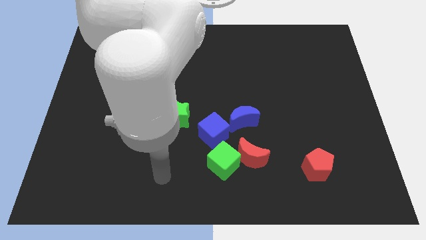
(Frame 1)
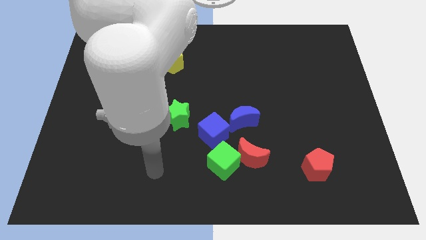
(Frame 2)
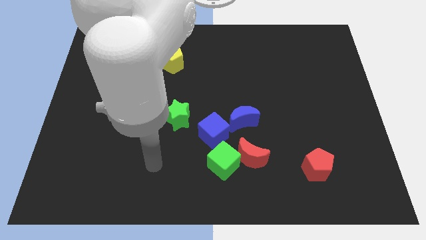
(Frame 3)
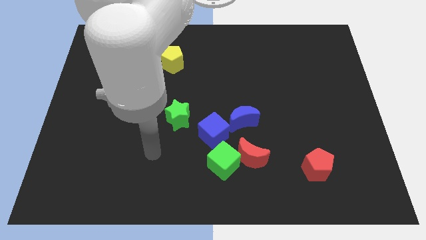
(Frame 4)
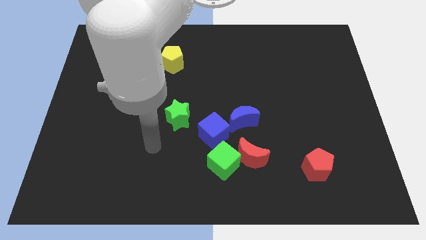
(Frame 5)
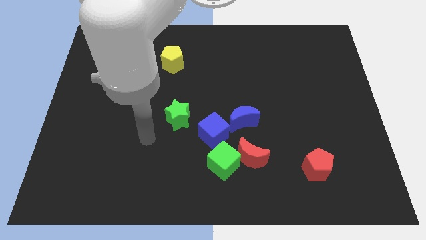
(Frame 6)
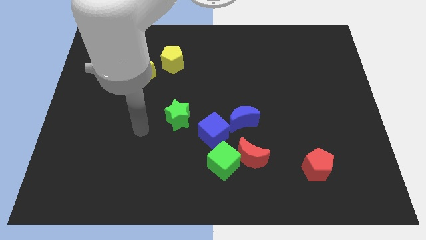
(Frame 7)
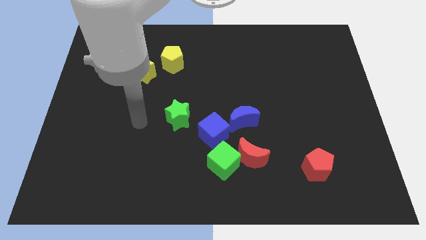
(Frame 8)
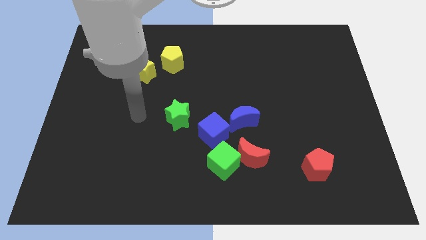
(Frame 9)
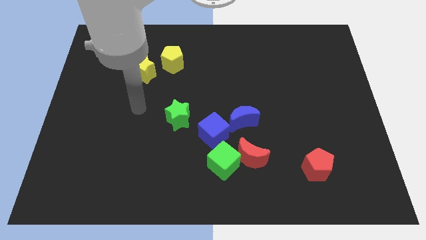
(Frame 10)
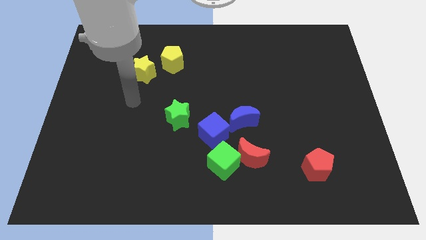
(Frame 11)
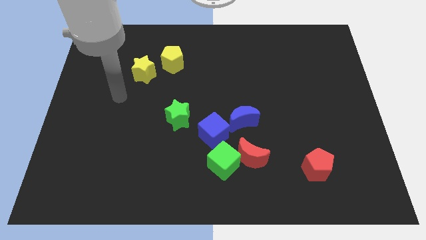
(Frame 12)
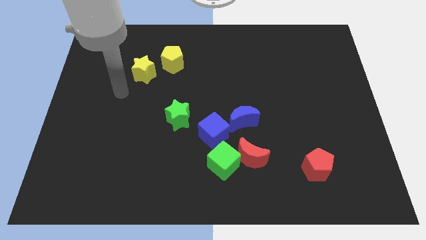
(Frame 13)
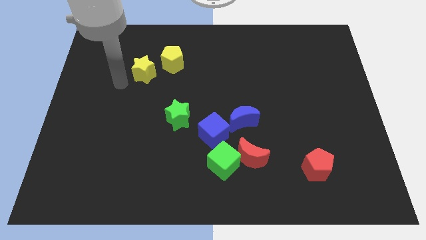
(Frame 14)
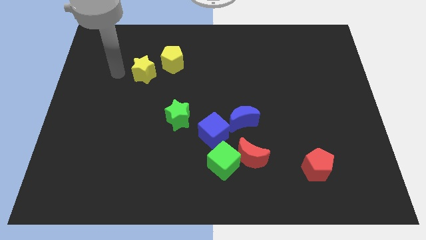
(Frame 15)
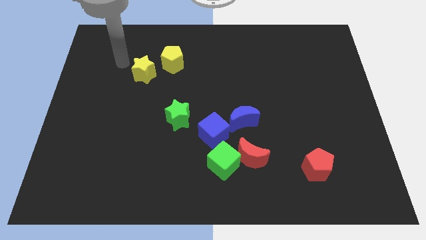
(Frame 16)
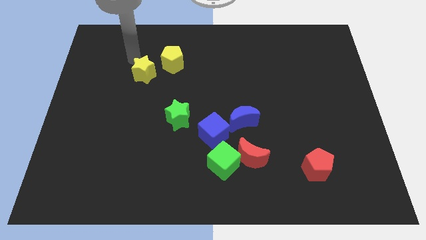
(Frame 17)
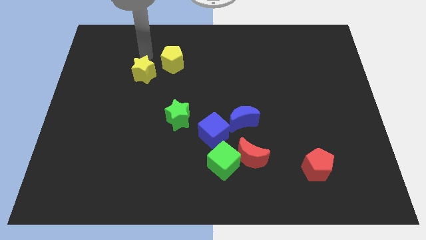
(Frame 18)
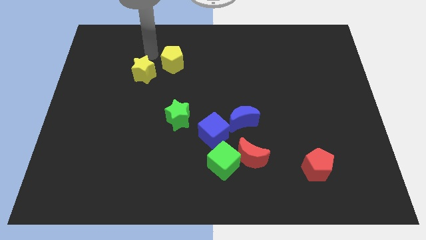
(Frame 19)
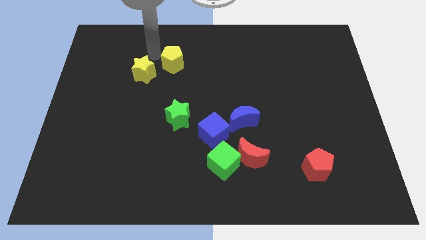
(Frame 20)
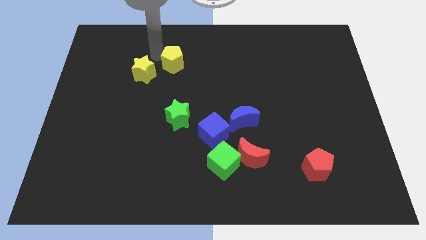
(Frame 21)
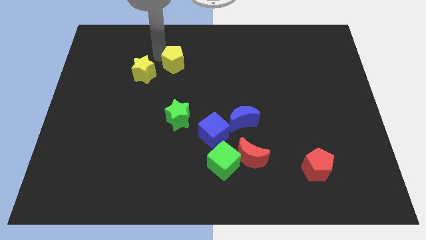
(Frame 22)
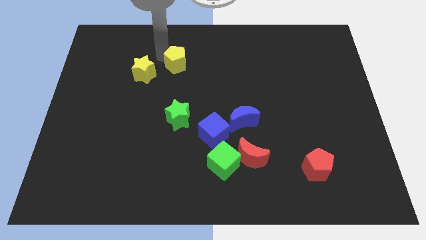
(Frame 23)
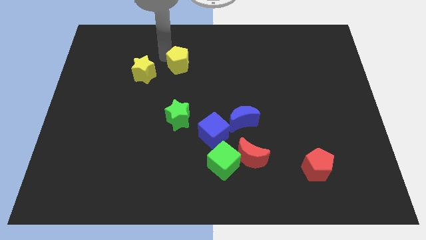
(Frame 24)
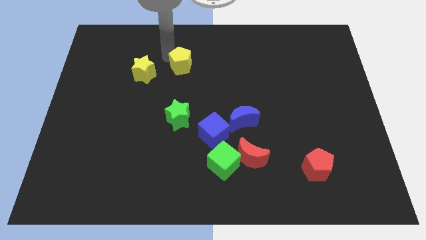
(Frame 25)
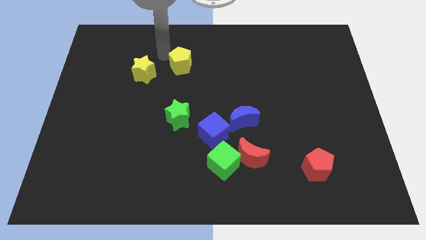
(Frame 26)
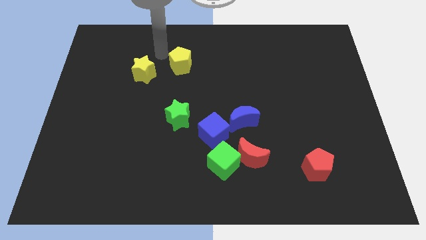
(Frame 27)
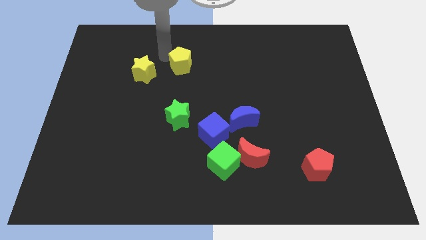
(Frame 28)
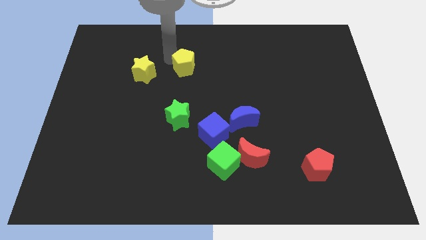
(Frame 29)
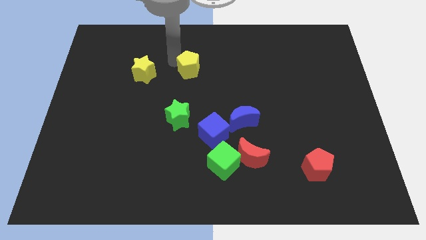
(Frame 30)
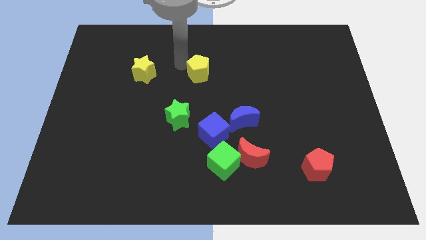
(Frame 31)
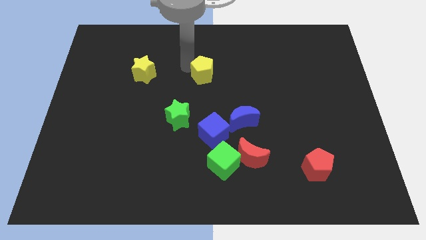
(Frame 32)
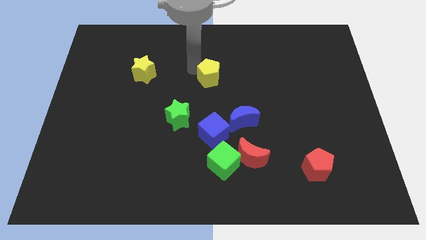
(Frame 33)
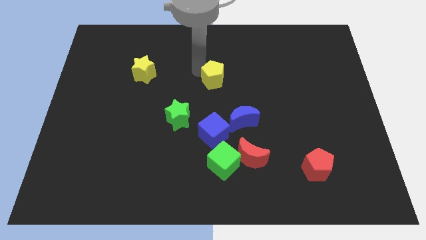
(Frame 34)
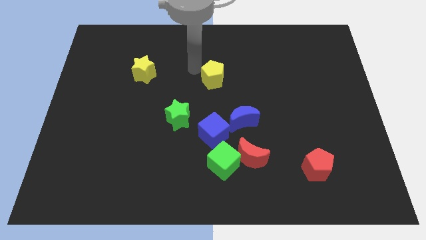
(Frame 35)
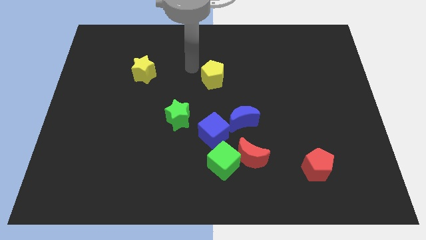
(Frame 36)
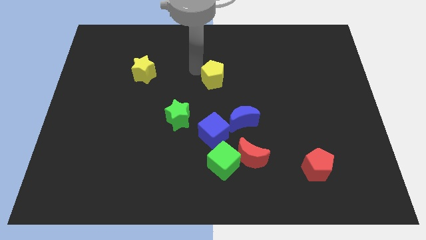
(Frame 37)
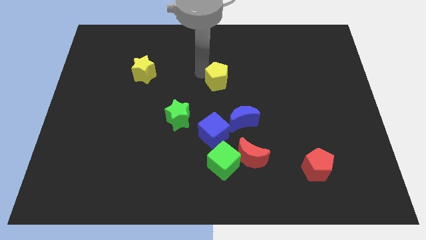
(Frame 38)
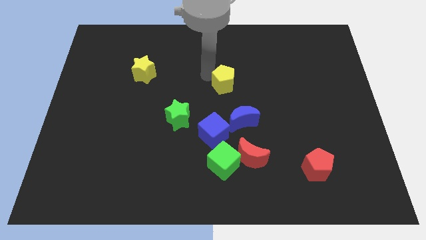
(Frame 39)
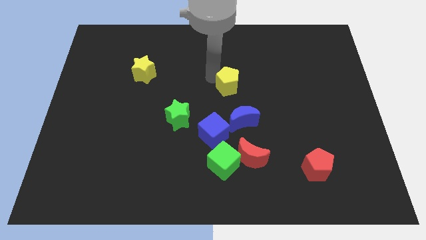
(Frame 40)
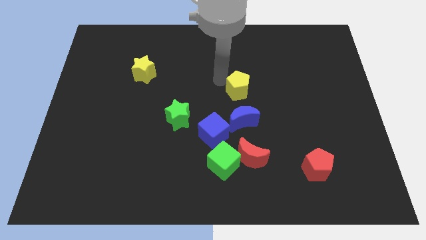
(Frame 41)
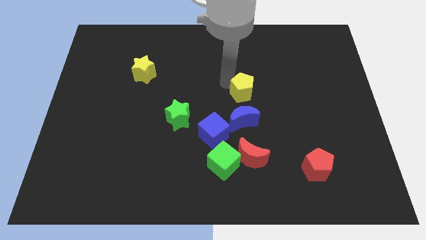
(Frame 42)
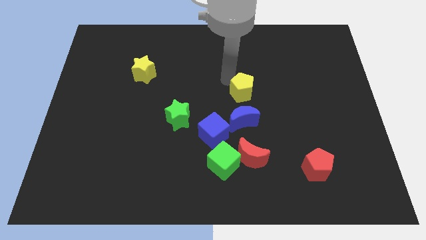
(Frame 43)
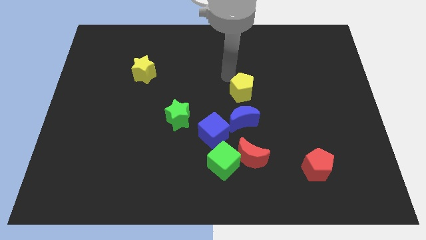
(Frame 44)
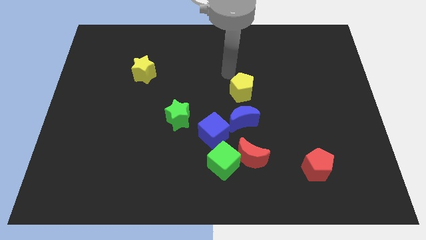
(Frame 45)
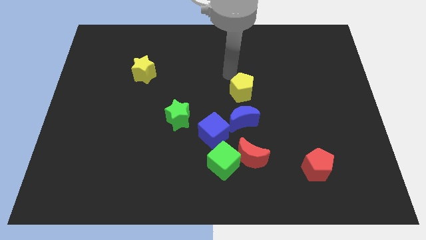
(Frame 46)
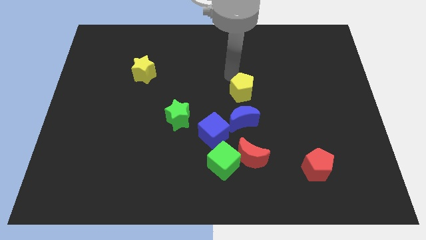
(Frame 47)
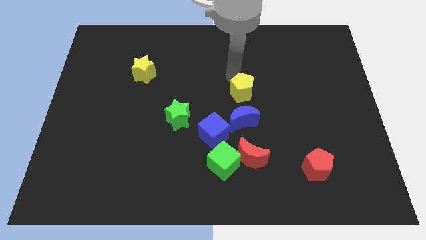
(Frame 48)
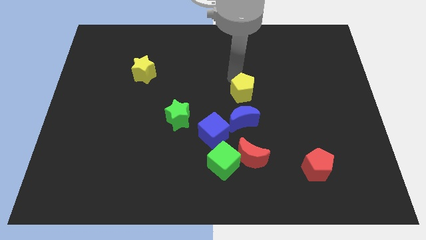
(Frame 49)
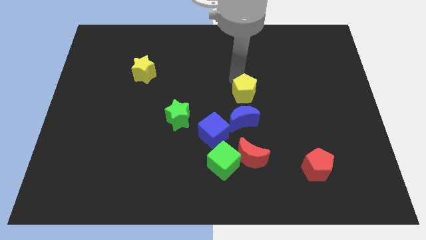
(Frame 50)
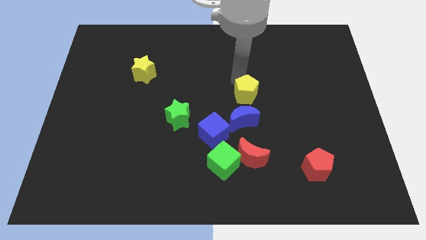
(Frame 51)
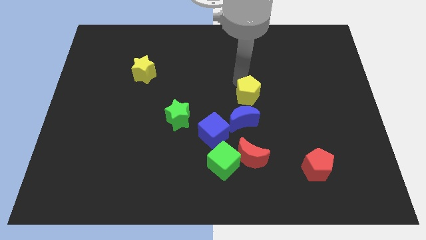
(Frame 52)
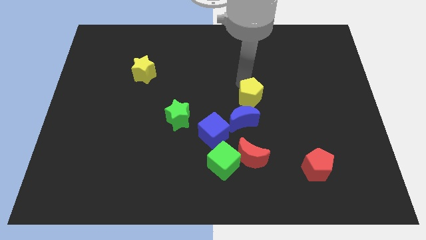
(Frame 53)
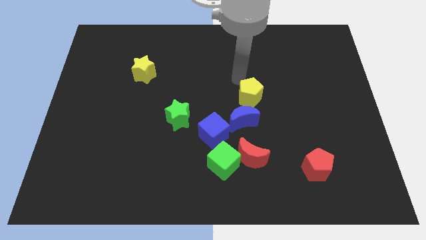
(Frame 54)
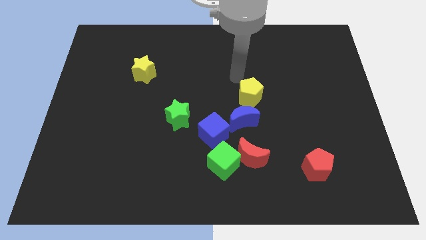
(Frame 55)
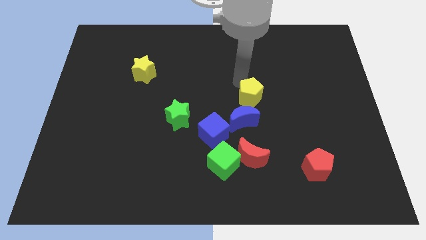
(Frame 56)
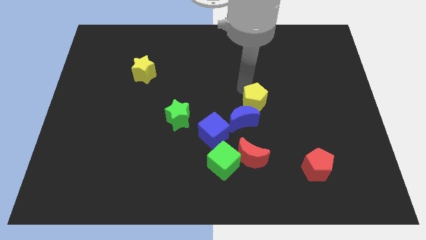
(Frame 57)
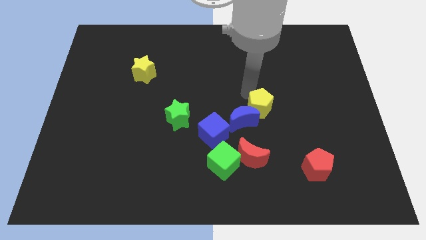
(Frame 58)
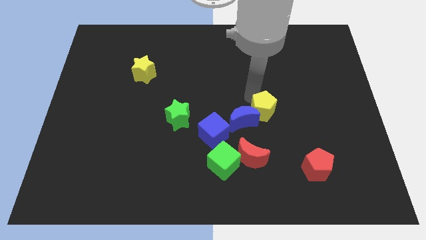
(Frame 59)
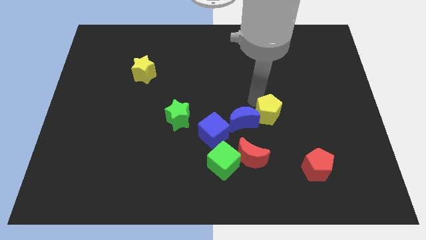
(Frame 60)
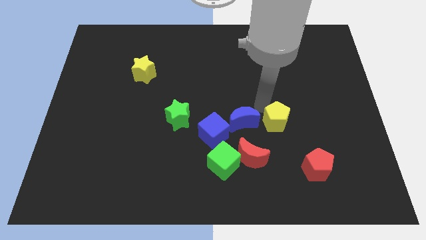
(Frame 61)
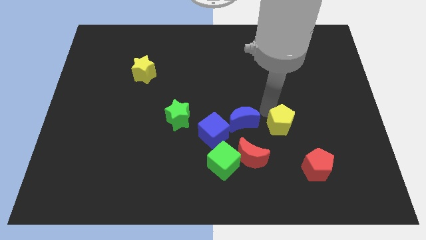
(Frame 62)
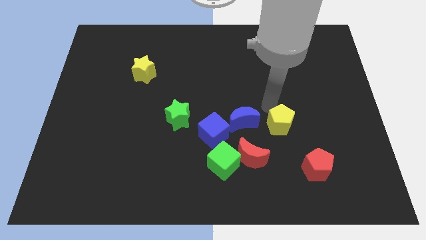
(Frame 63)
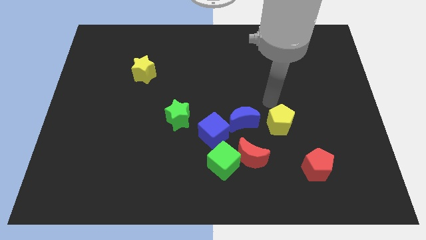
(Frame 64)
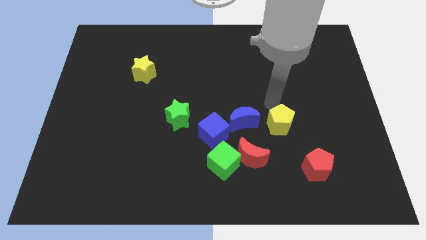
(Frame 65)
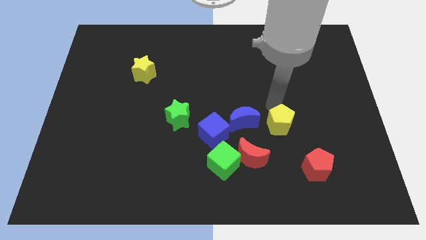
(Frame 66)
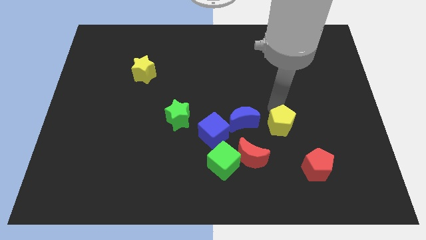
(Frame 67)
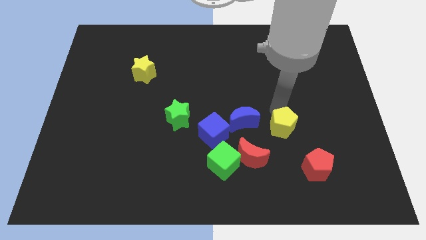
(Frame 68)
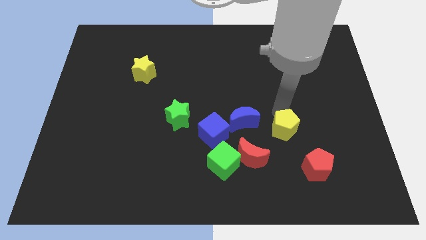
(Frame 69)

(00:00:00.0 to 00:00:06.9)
slide the yellow pentagon to the top left side of the red pentagon

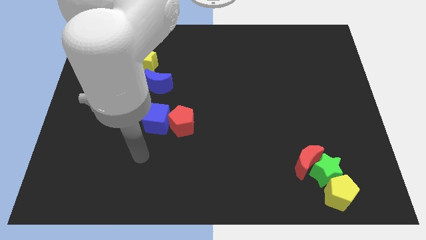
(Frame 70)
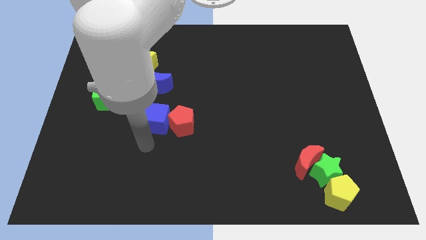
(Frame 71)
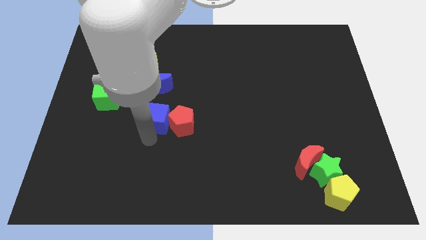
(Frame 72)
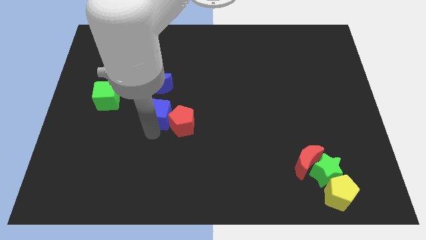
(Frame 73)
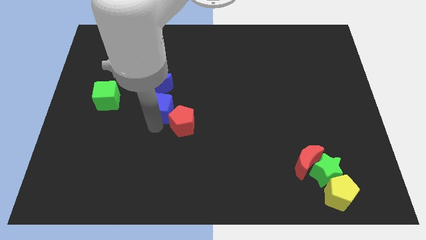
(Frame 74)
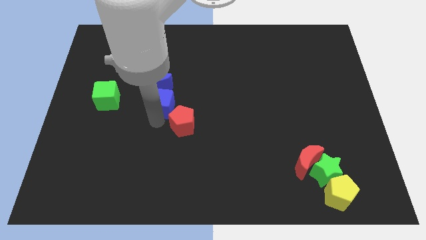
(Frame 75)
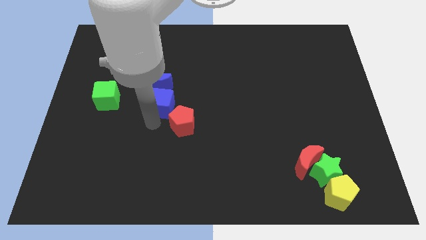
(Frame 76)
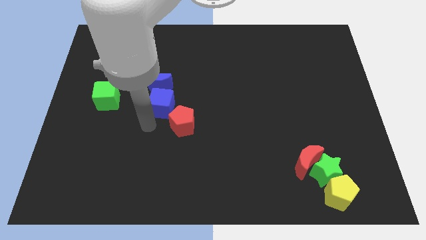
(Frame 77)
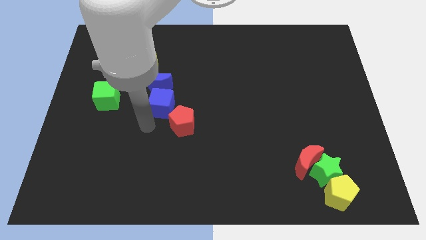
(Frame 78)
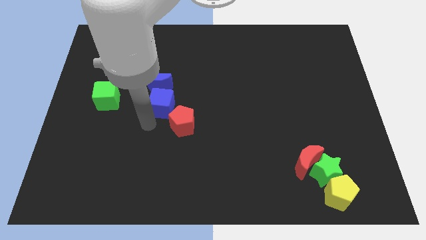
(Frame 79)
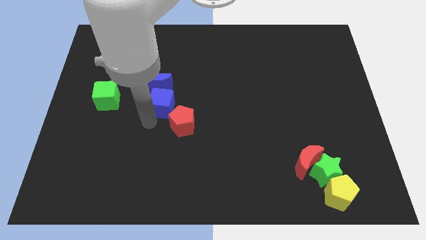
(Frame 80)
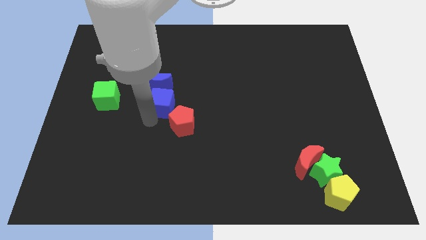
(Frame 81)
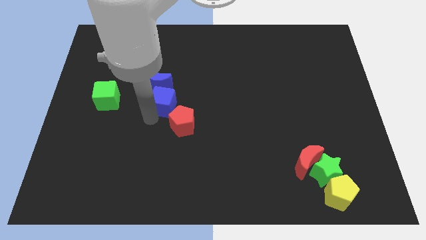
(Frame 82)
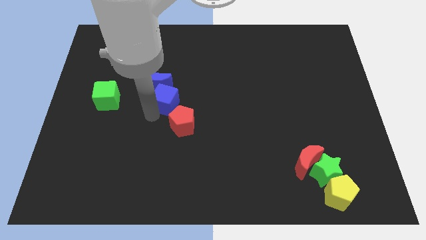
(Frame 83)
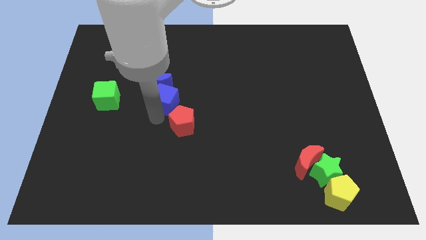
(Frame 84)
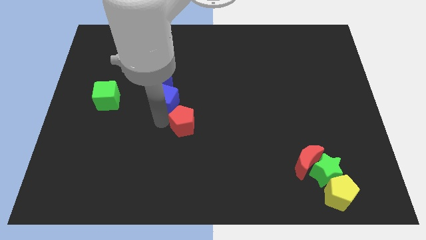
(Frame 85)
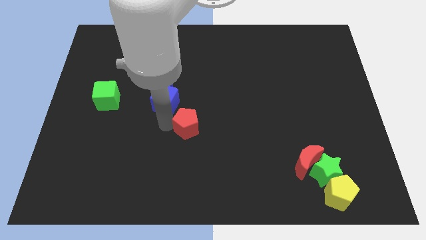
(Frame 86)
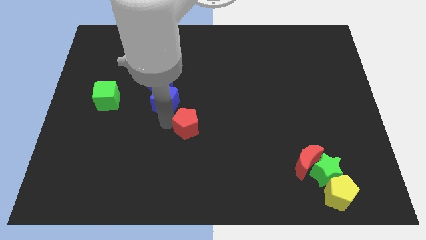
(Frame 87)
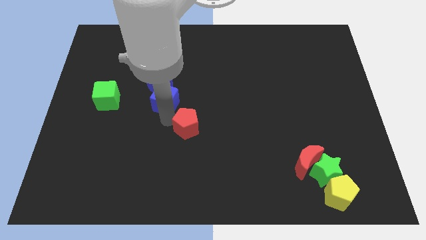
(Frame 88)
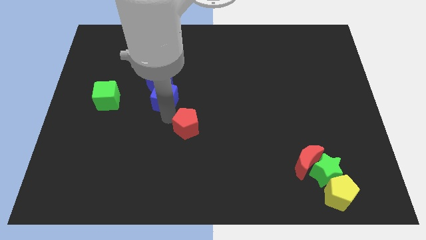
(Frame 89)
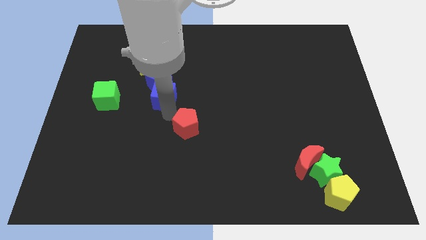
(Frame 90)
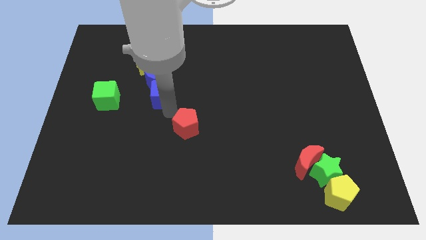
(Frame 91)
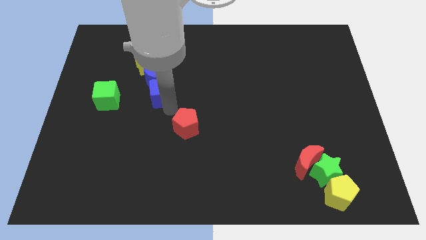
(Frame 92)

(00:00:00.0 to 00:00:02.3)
slide the blue cube to the bottom right of the yellow star
